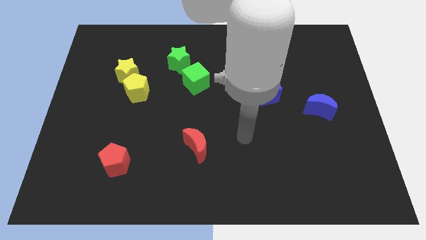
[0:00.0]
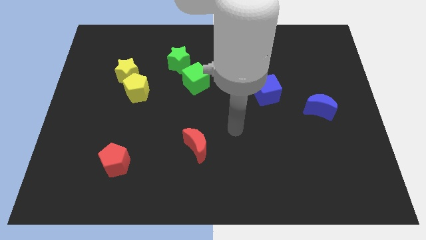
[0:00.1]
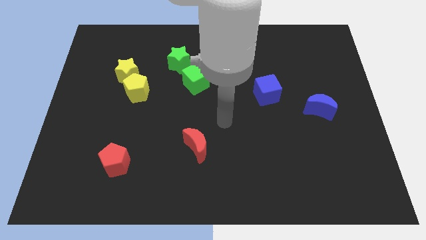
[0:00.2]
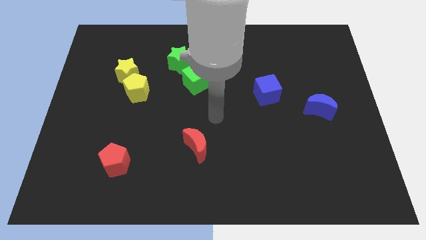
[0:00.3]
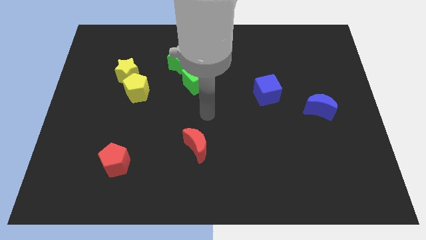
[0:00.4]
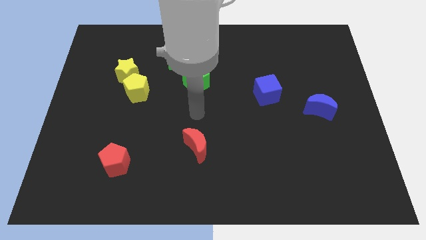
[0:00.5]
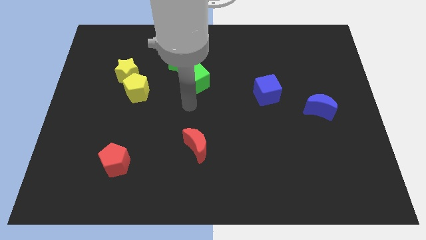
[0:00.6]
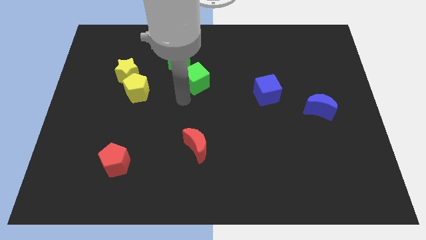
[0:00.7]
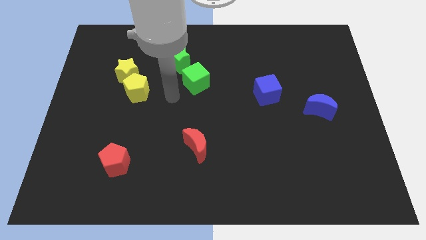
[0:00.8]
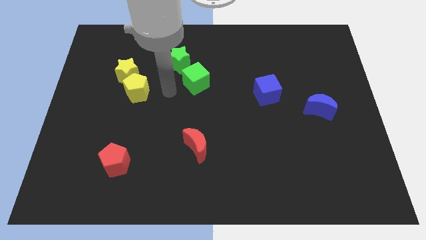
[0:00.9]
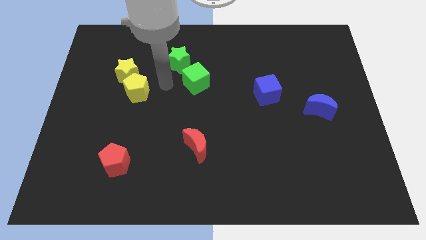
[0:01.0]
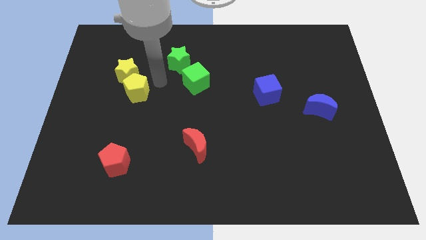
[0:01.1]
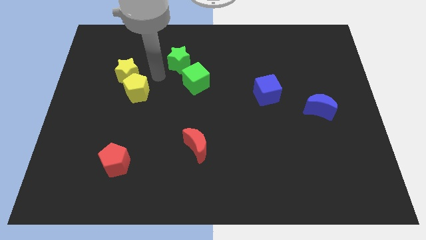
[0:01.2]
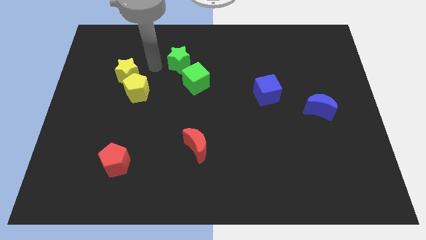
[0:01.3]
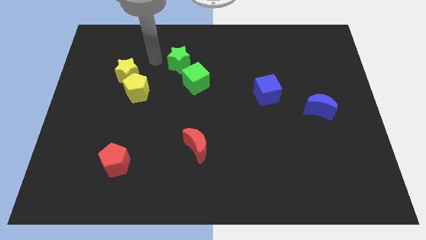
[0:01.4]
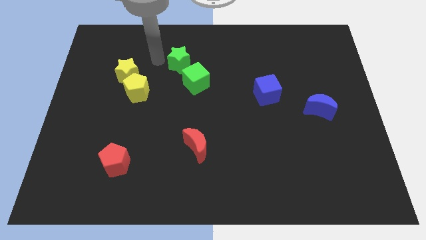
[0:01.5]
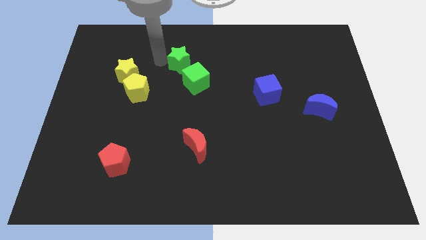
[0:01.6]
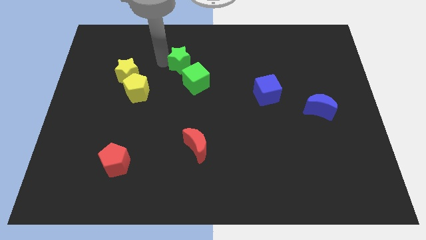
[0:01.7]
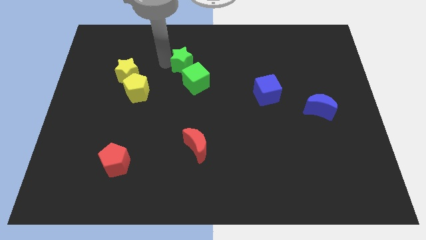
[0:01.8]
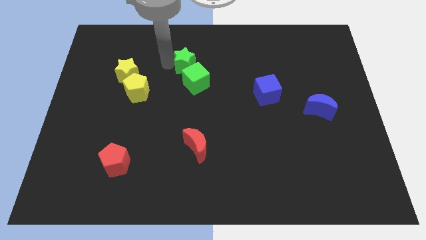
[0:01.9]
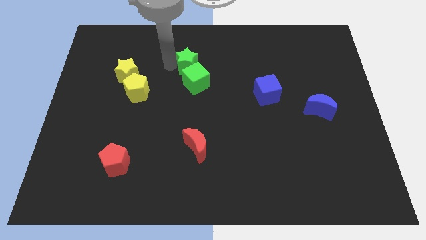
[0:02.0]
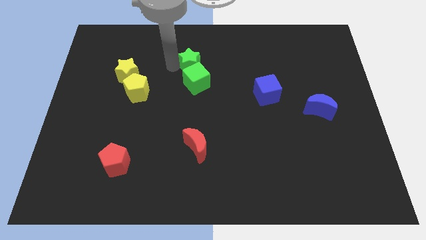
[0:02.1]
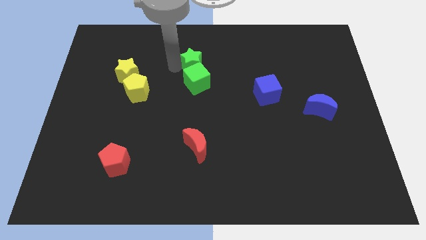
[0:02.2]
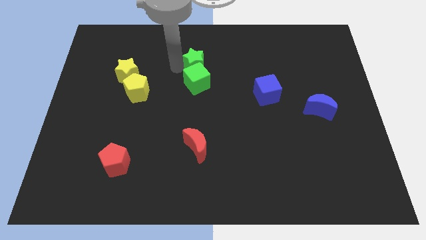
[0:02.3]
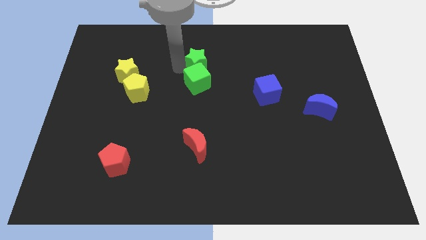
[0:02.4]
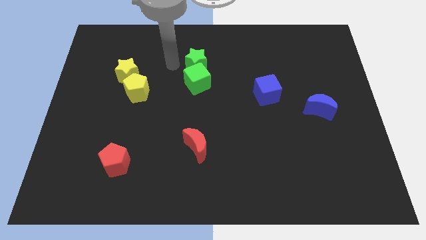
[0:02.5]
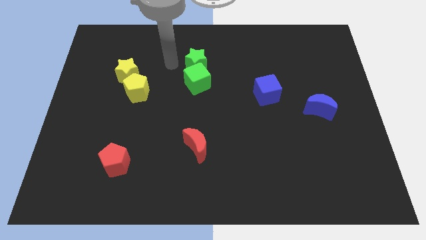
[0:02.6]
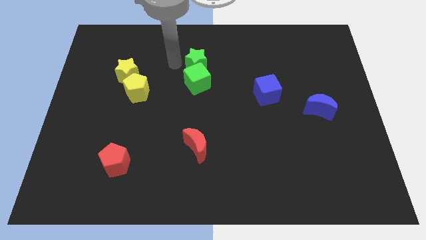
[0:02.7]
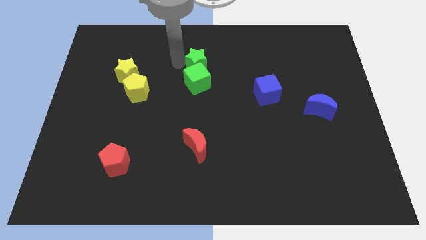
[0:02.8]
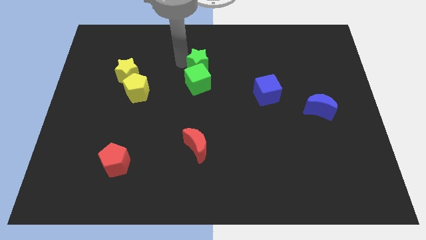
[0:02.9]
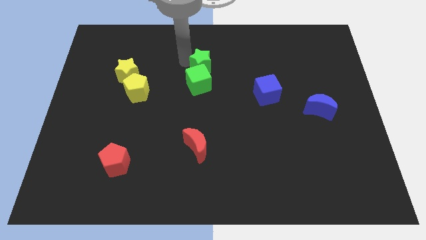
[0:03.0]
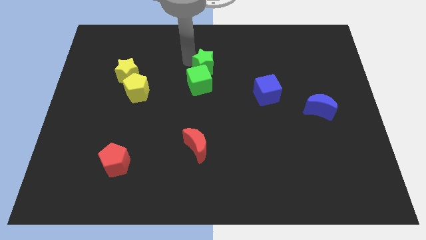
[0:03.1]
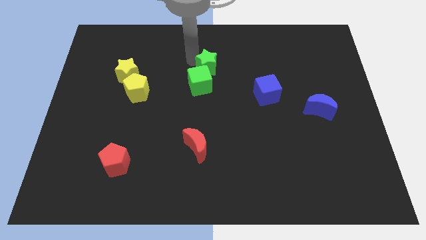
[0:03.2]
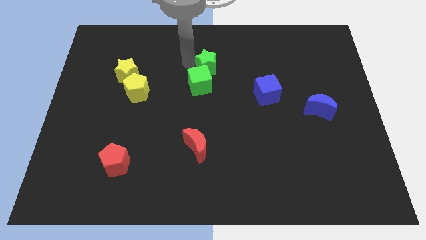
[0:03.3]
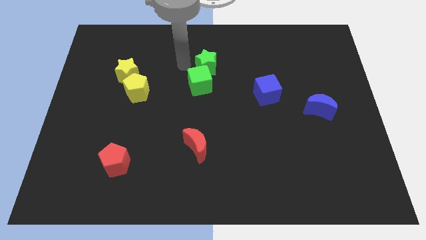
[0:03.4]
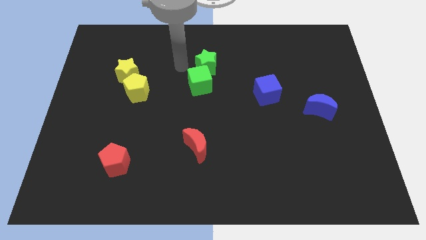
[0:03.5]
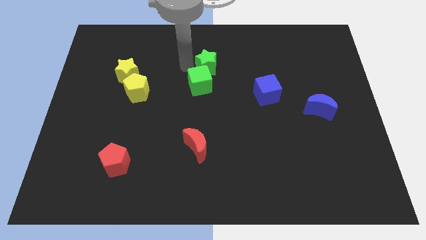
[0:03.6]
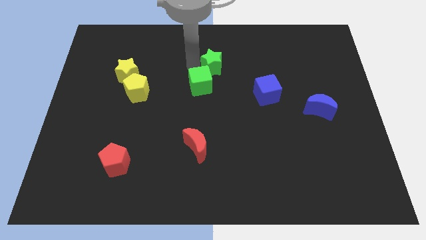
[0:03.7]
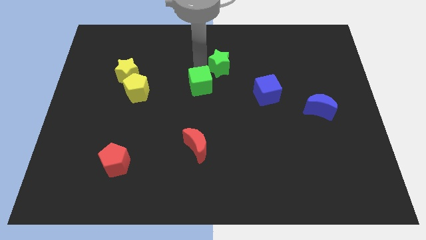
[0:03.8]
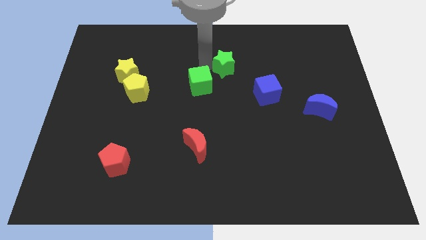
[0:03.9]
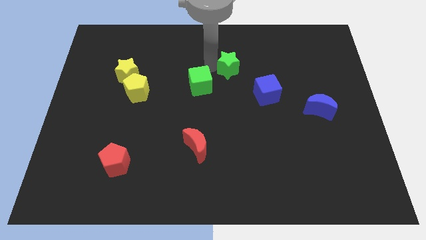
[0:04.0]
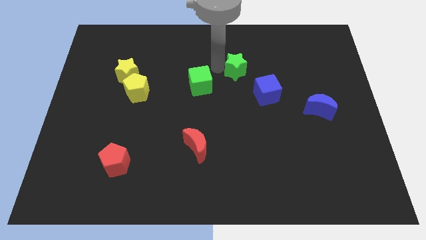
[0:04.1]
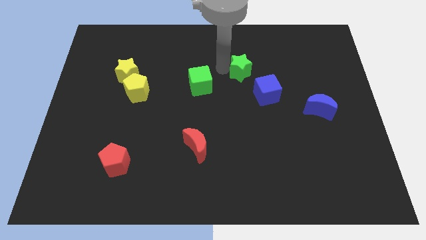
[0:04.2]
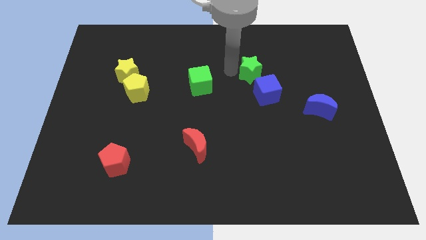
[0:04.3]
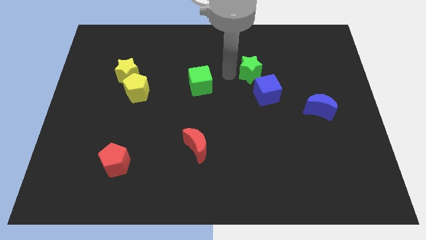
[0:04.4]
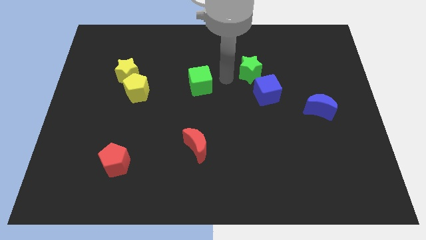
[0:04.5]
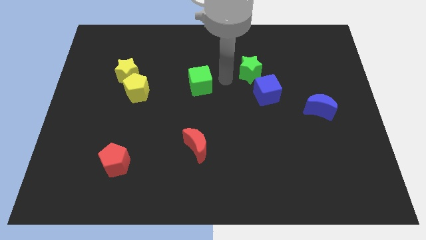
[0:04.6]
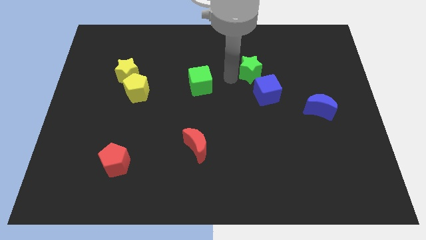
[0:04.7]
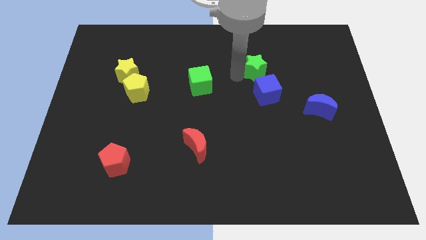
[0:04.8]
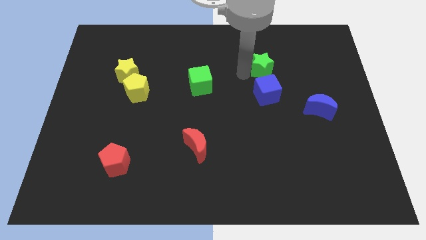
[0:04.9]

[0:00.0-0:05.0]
slide the green star to the right

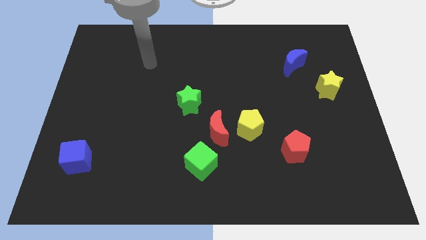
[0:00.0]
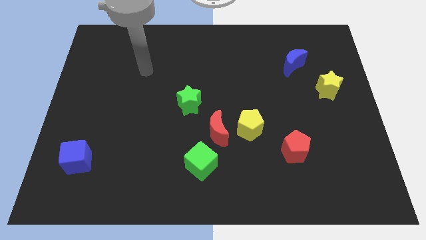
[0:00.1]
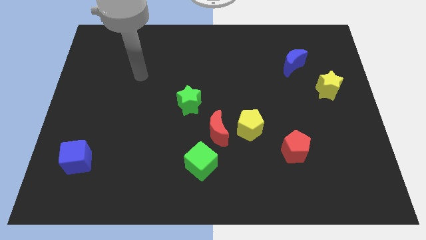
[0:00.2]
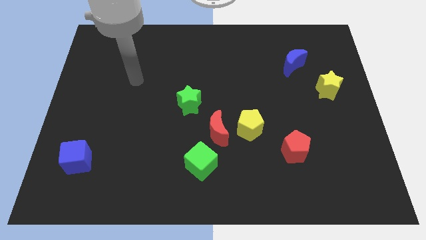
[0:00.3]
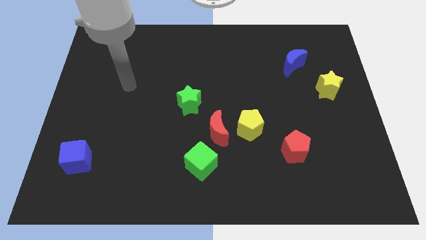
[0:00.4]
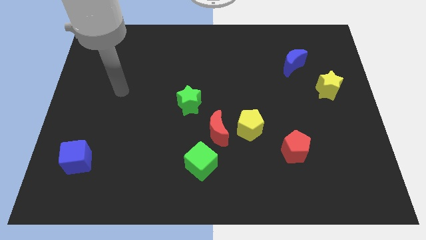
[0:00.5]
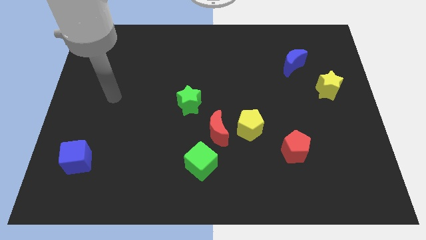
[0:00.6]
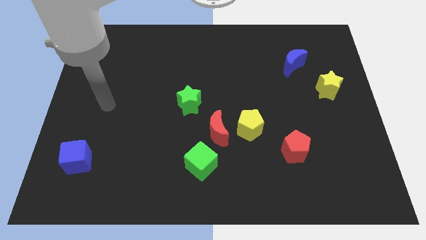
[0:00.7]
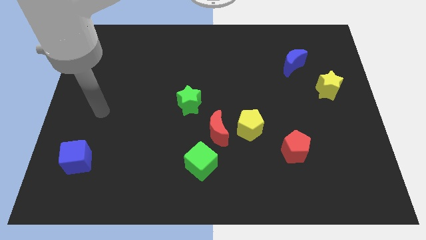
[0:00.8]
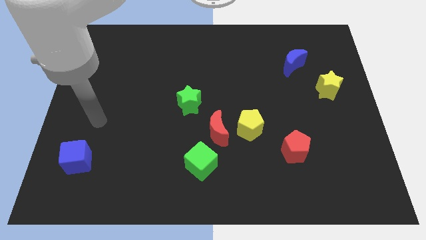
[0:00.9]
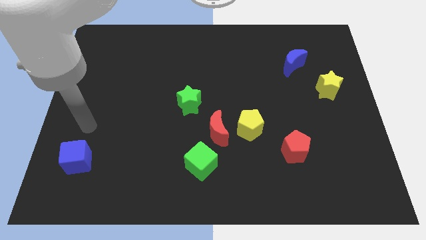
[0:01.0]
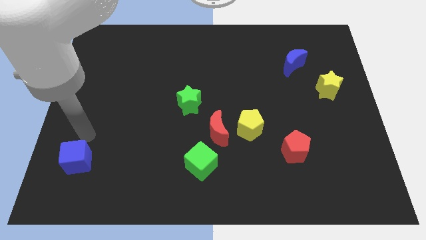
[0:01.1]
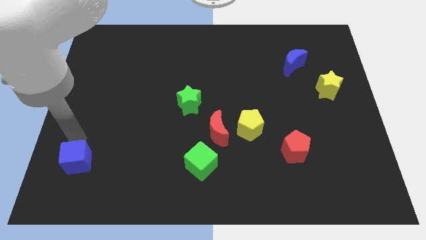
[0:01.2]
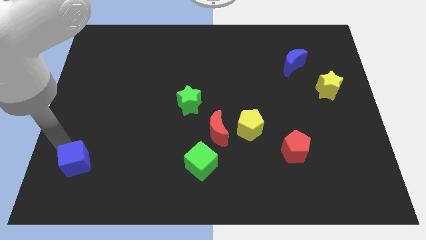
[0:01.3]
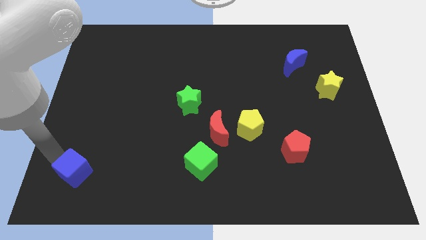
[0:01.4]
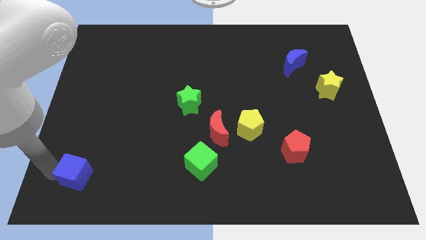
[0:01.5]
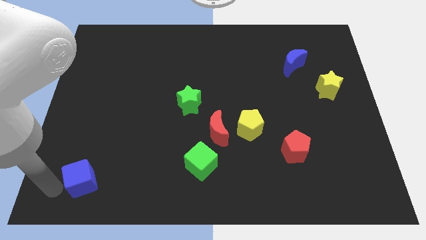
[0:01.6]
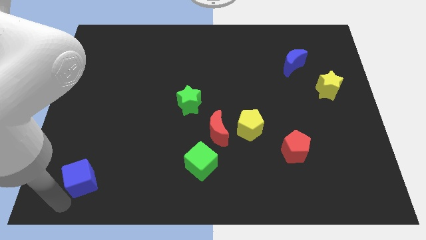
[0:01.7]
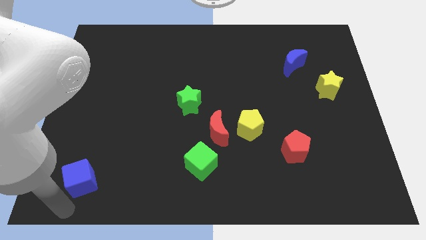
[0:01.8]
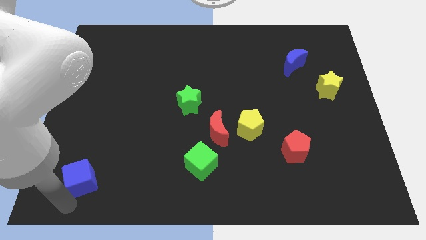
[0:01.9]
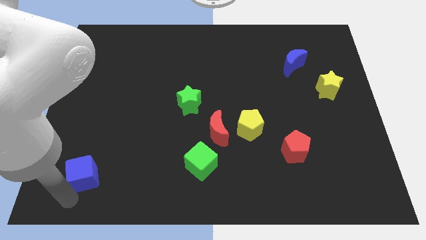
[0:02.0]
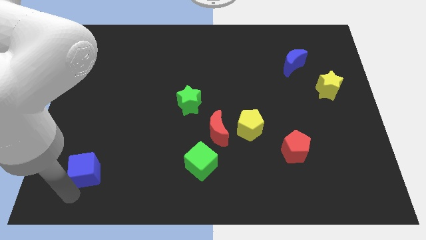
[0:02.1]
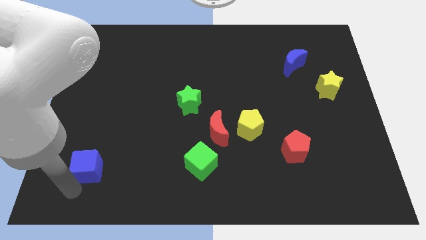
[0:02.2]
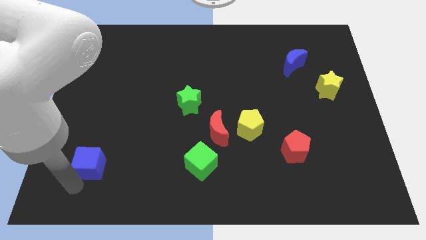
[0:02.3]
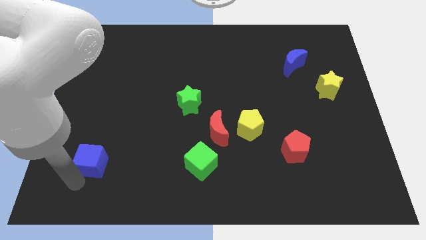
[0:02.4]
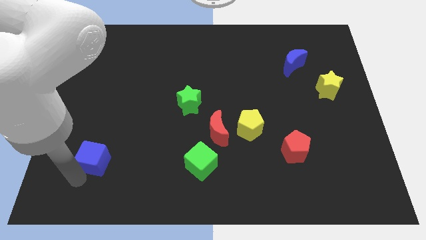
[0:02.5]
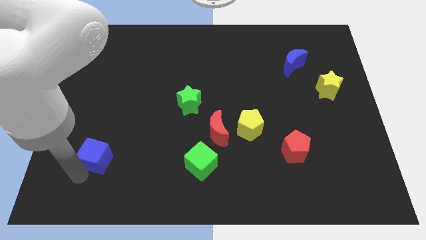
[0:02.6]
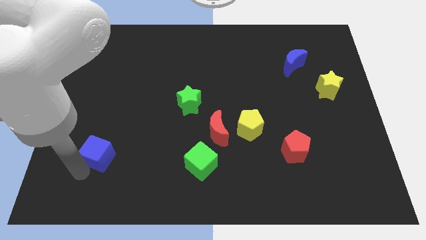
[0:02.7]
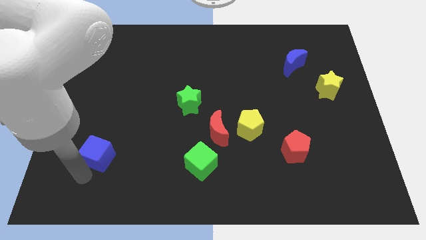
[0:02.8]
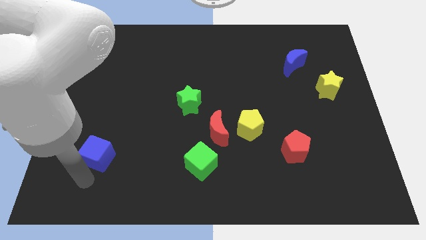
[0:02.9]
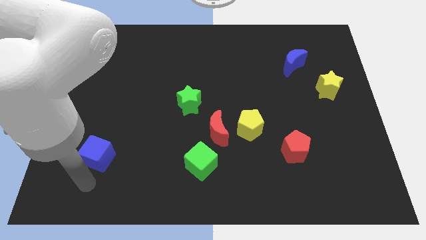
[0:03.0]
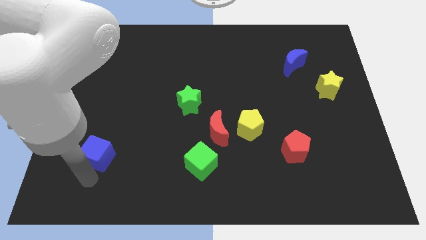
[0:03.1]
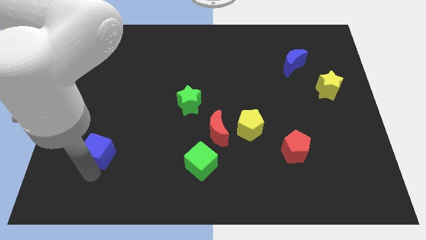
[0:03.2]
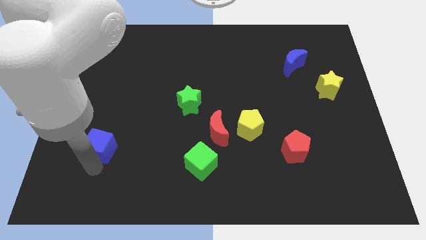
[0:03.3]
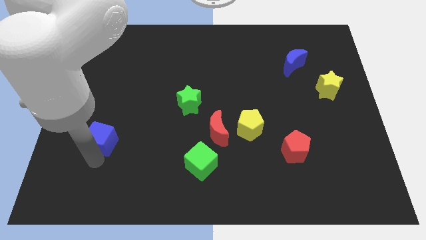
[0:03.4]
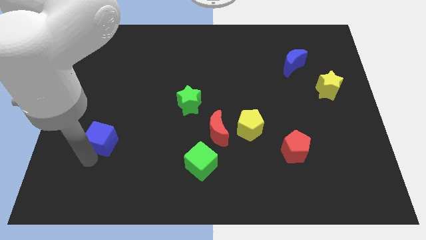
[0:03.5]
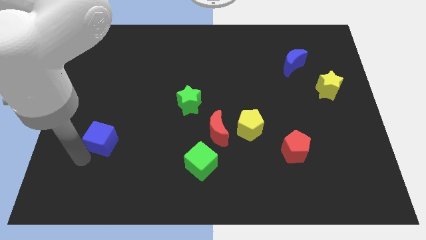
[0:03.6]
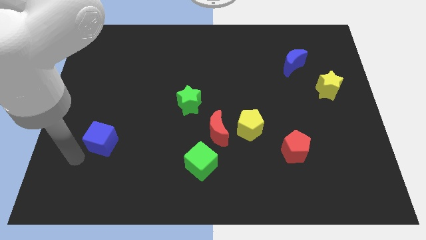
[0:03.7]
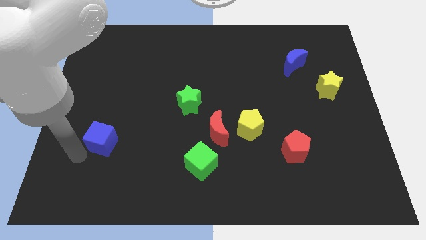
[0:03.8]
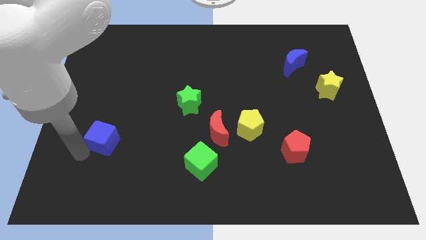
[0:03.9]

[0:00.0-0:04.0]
move the blue cube diagonally upwards and right somewhat
